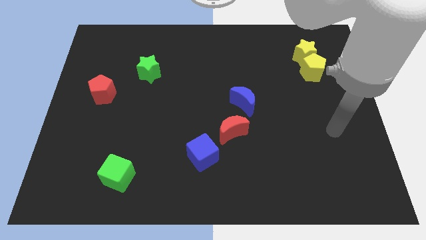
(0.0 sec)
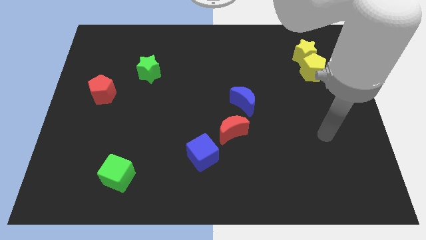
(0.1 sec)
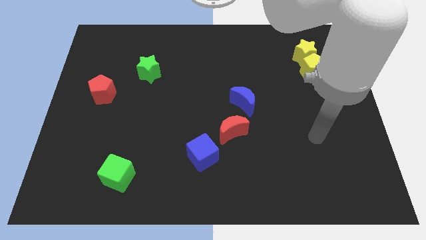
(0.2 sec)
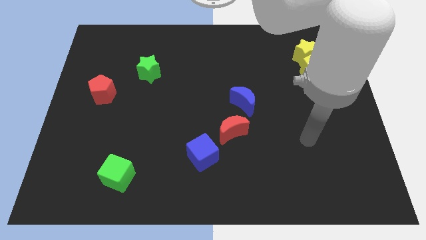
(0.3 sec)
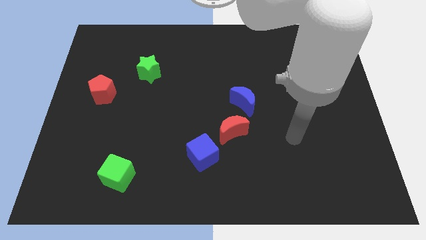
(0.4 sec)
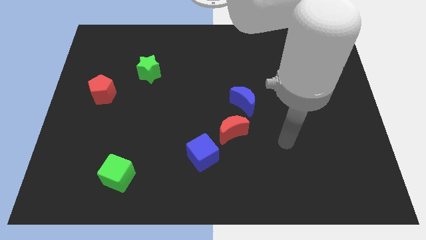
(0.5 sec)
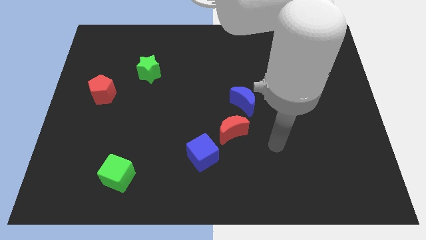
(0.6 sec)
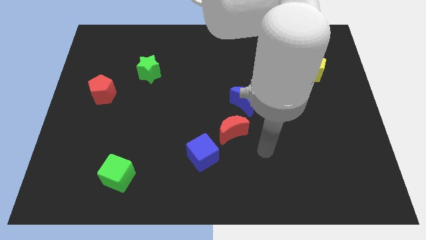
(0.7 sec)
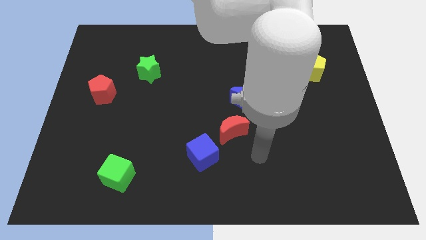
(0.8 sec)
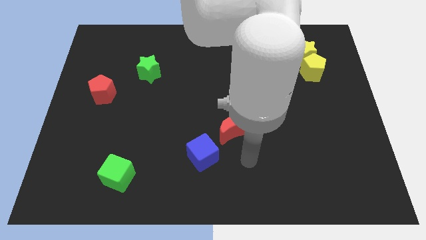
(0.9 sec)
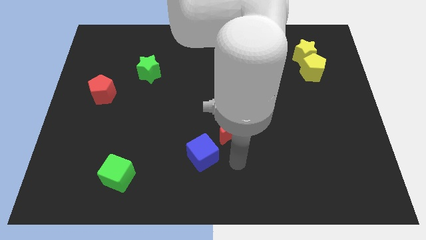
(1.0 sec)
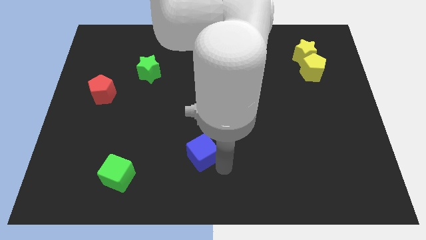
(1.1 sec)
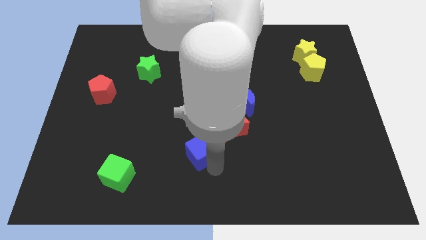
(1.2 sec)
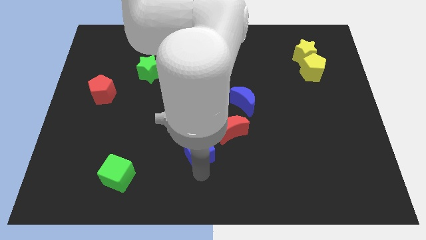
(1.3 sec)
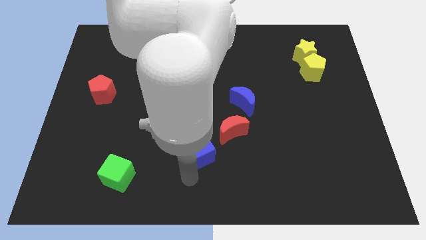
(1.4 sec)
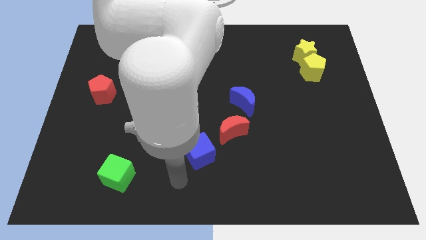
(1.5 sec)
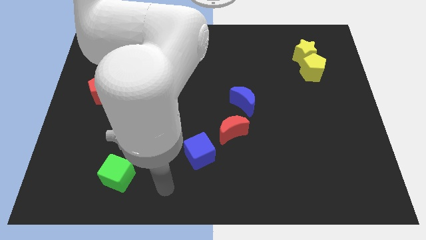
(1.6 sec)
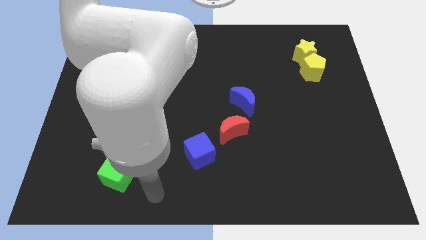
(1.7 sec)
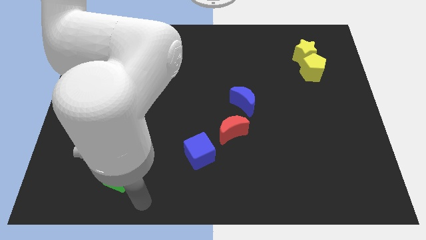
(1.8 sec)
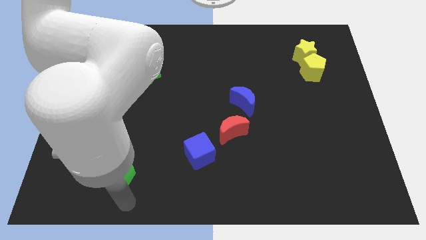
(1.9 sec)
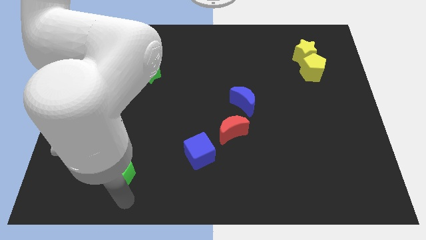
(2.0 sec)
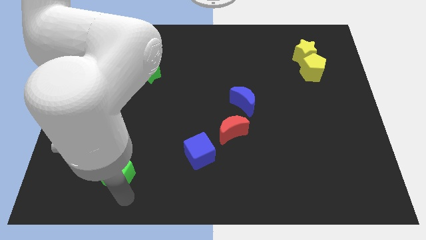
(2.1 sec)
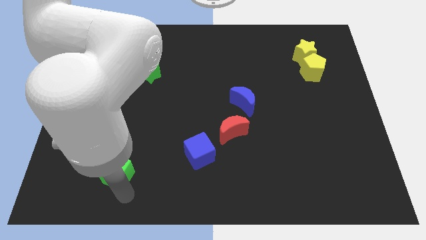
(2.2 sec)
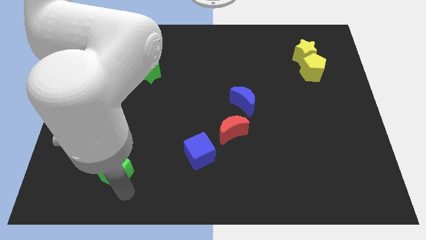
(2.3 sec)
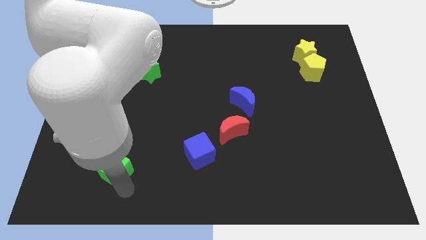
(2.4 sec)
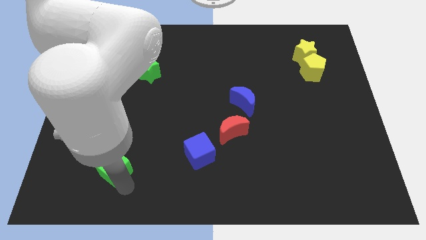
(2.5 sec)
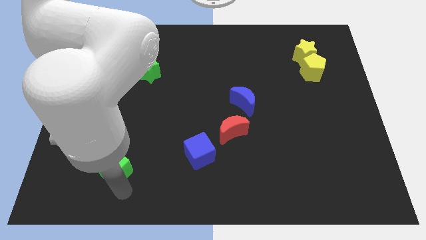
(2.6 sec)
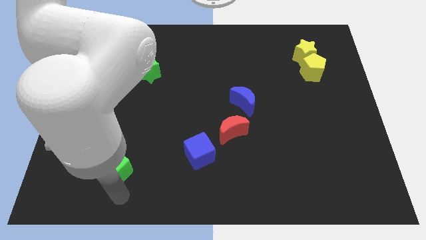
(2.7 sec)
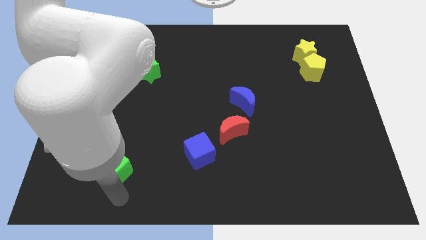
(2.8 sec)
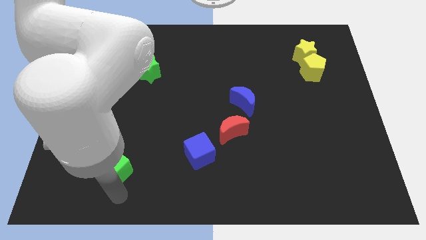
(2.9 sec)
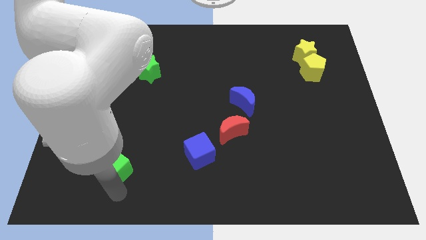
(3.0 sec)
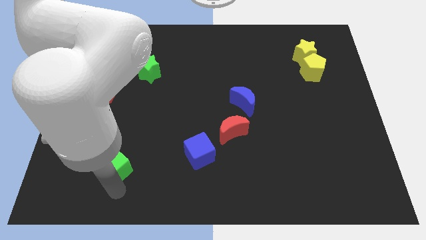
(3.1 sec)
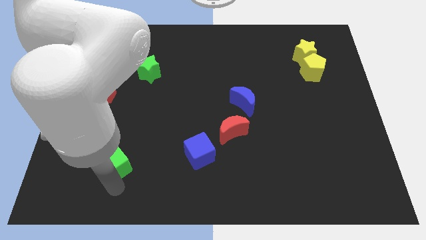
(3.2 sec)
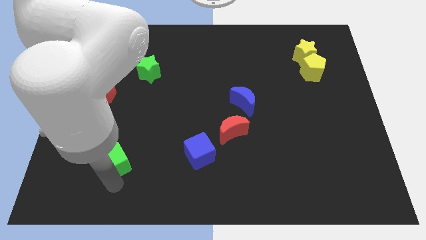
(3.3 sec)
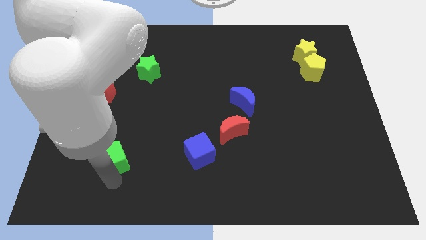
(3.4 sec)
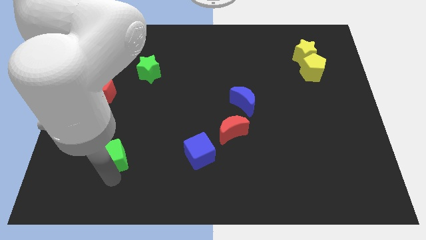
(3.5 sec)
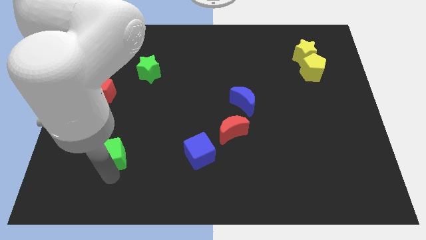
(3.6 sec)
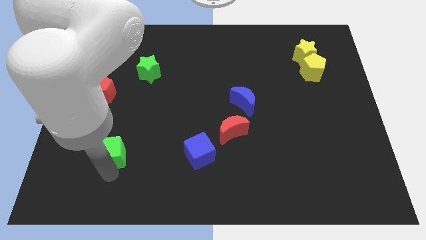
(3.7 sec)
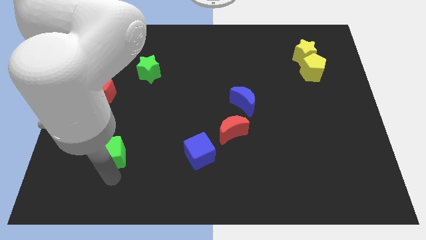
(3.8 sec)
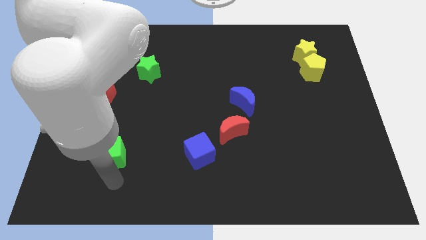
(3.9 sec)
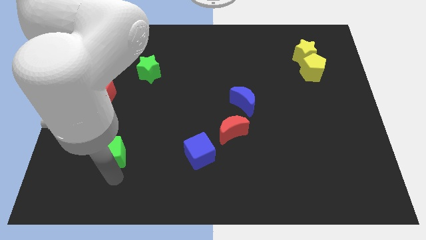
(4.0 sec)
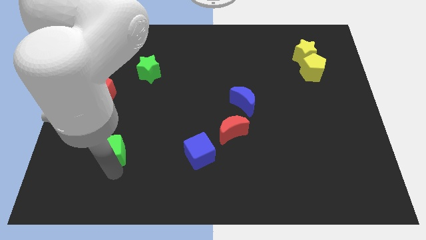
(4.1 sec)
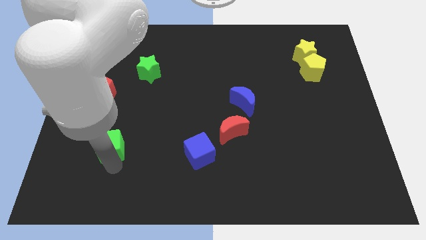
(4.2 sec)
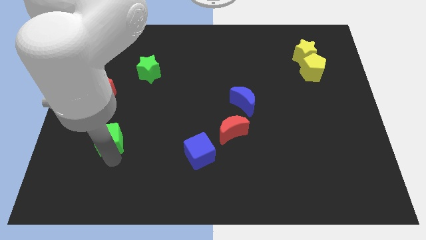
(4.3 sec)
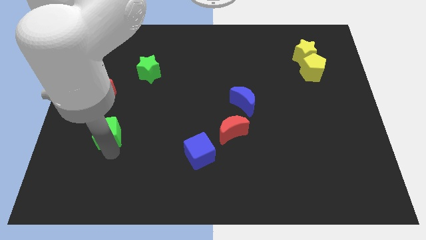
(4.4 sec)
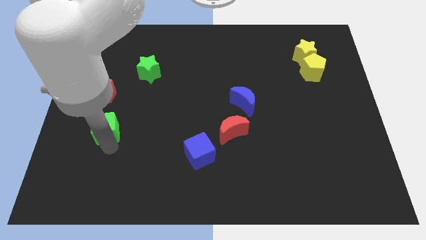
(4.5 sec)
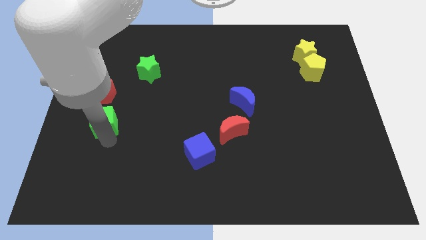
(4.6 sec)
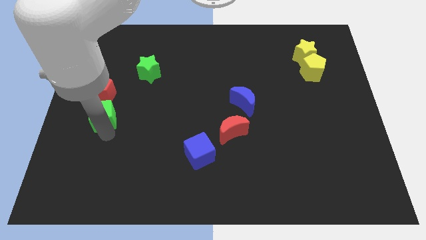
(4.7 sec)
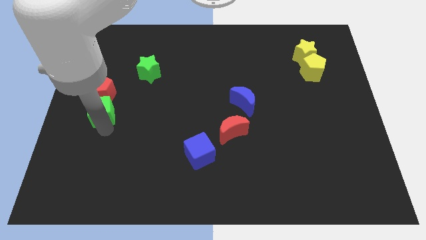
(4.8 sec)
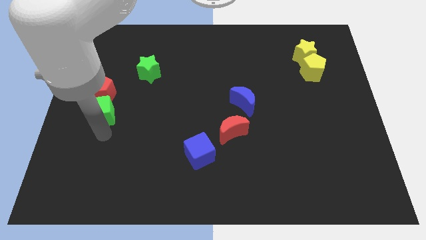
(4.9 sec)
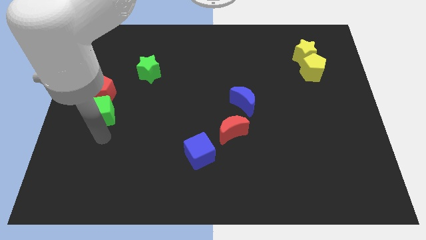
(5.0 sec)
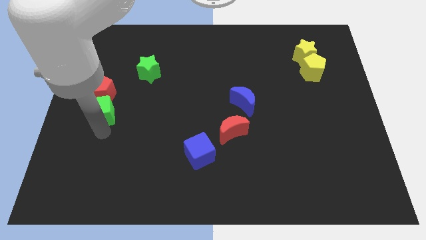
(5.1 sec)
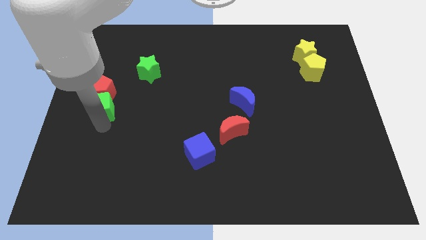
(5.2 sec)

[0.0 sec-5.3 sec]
put the green cube next to the red pentagon

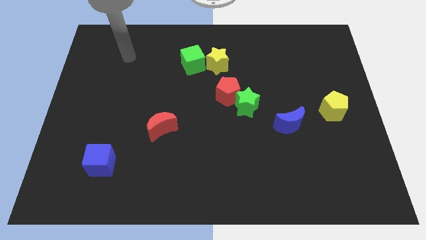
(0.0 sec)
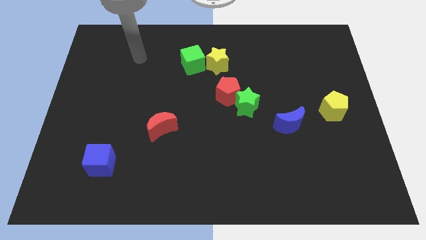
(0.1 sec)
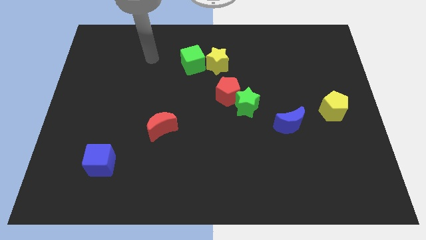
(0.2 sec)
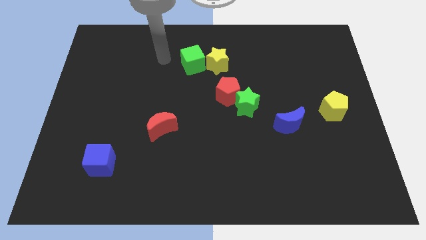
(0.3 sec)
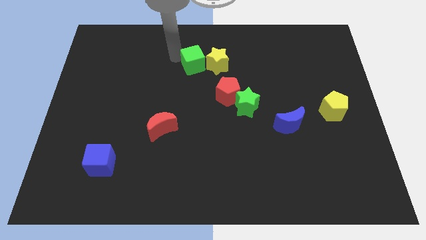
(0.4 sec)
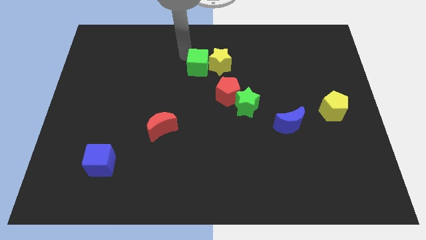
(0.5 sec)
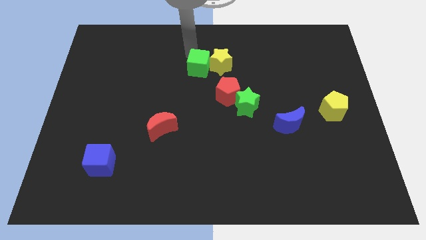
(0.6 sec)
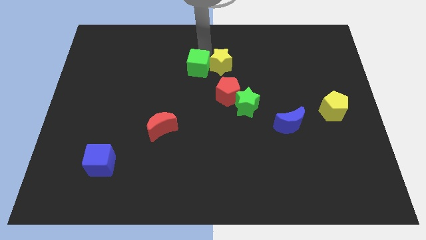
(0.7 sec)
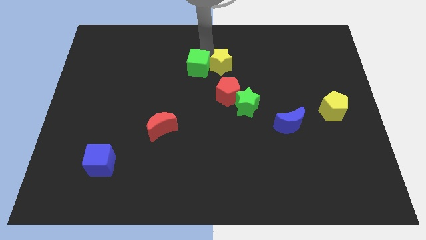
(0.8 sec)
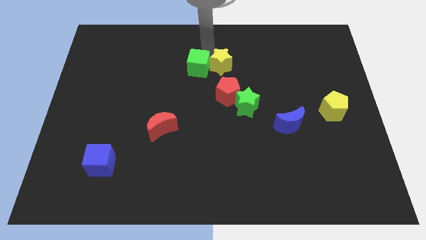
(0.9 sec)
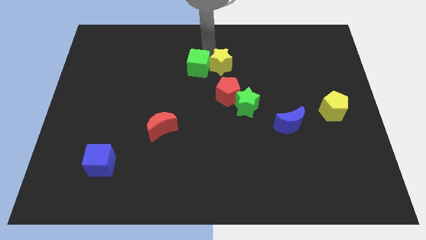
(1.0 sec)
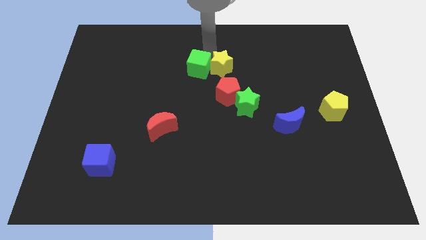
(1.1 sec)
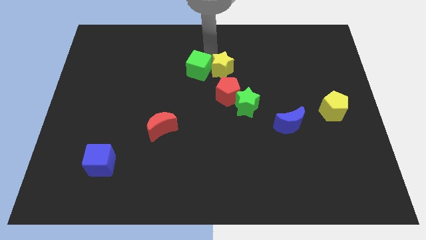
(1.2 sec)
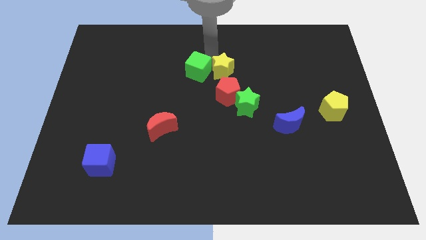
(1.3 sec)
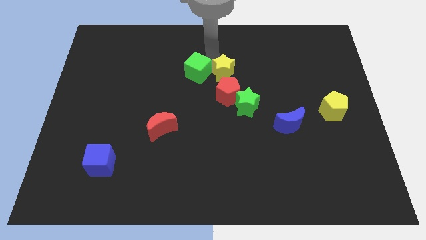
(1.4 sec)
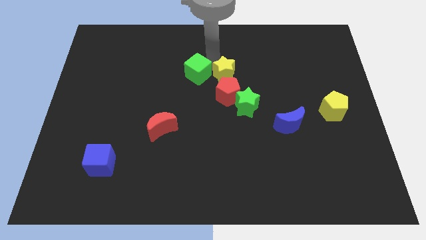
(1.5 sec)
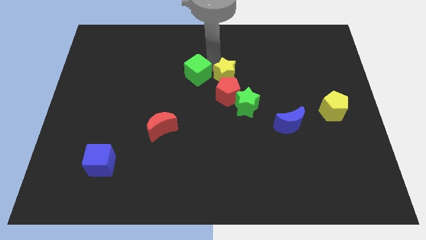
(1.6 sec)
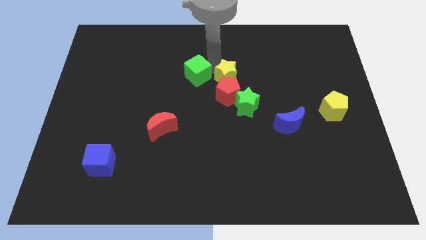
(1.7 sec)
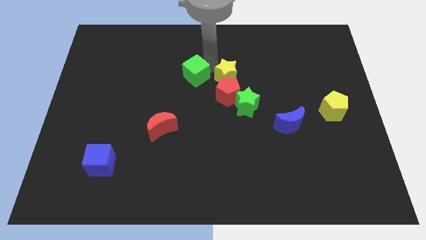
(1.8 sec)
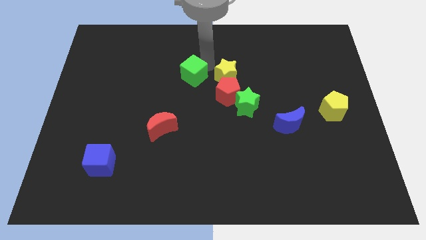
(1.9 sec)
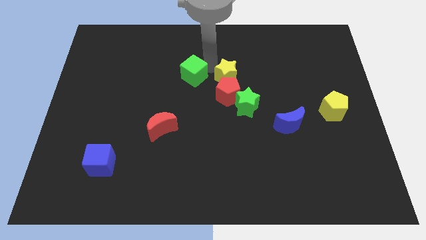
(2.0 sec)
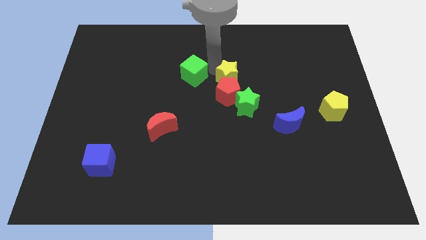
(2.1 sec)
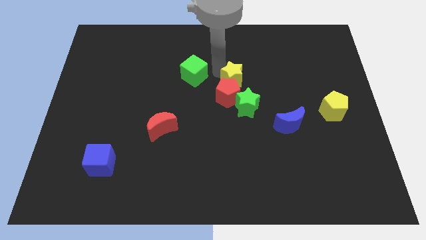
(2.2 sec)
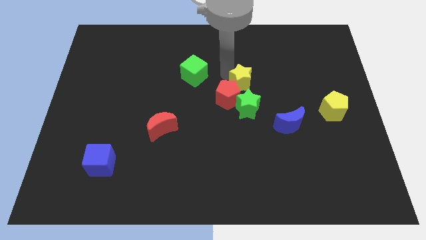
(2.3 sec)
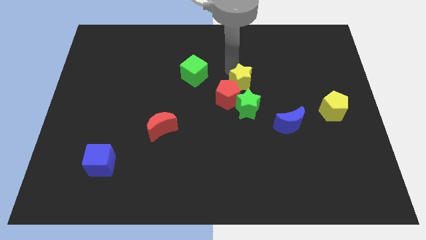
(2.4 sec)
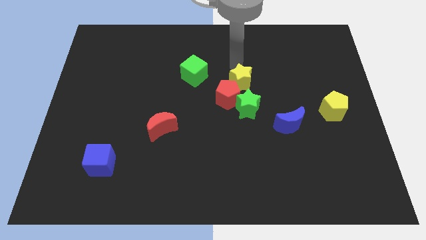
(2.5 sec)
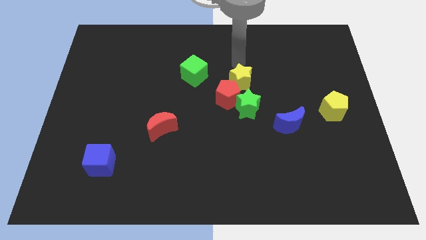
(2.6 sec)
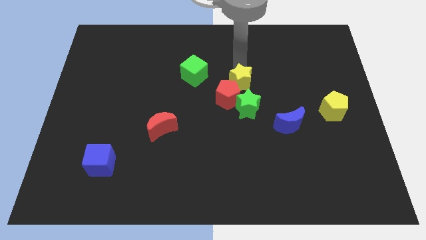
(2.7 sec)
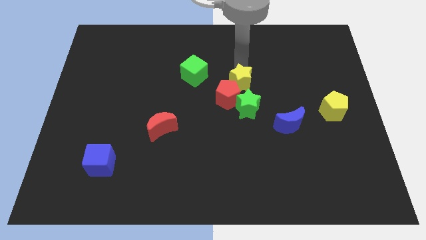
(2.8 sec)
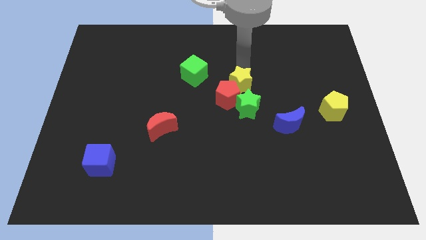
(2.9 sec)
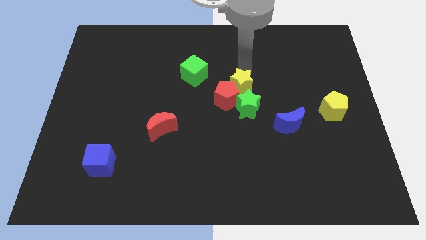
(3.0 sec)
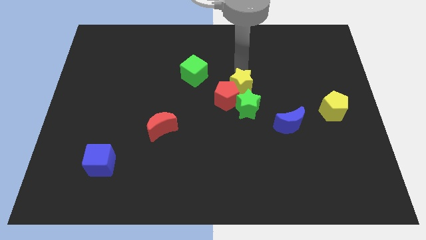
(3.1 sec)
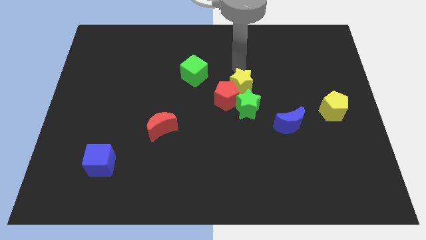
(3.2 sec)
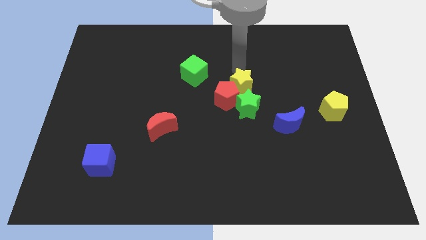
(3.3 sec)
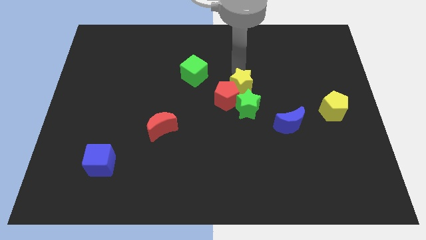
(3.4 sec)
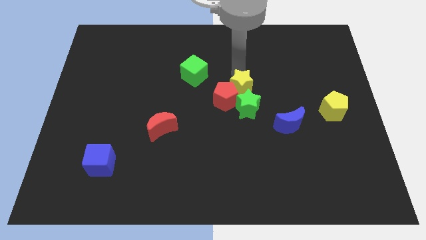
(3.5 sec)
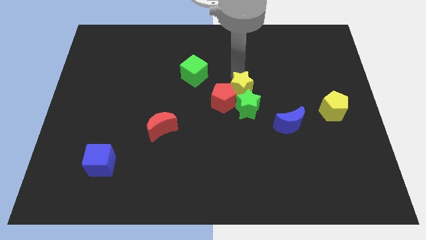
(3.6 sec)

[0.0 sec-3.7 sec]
put the yellow star next to the green star
